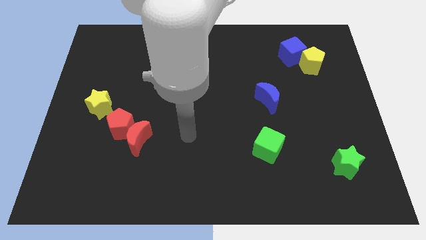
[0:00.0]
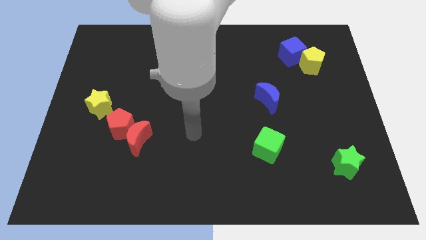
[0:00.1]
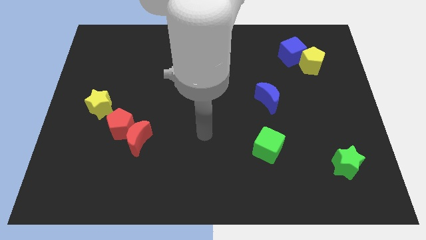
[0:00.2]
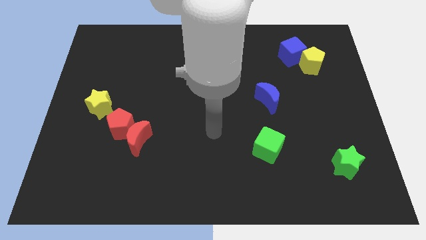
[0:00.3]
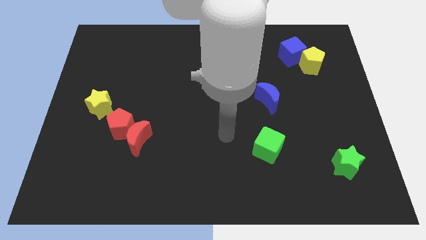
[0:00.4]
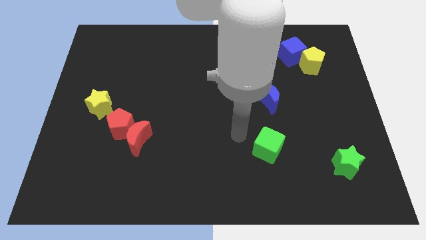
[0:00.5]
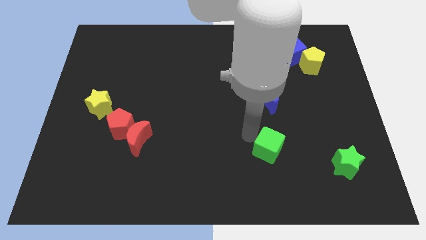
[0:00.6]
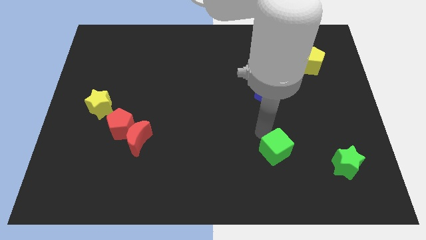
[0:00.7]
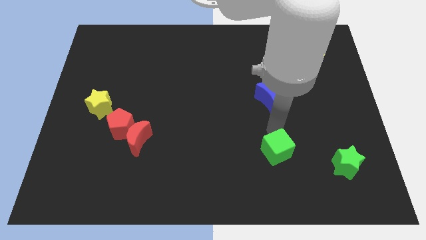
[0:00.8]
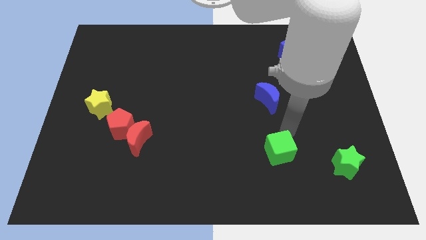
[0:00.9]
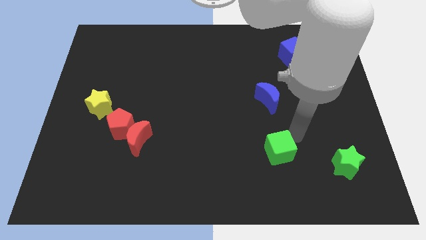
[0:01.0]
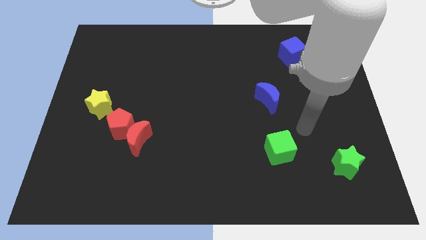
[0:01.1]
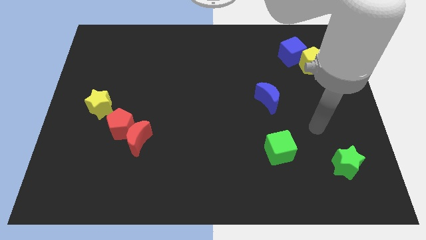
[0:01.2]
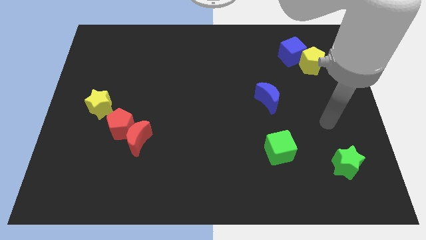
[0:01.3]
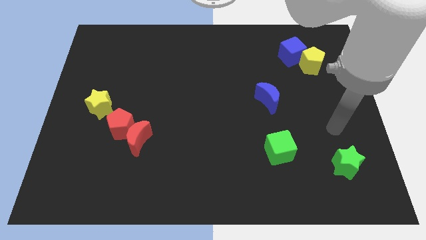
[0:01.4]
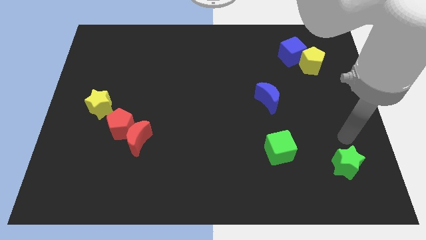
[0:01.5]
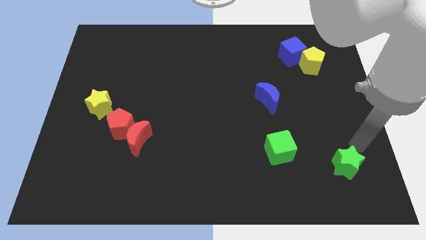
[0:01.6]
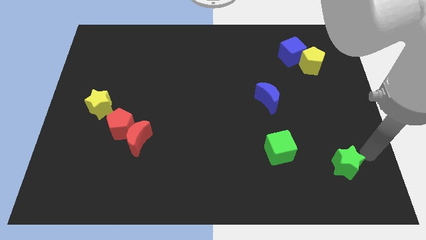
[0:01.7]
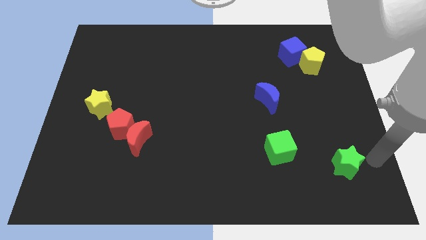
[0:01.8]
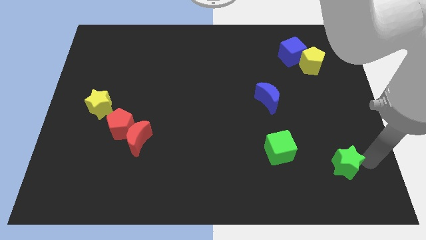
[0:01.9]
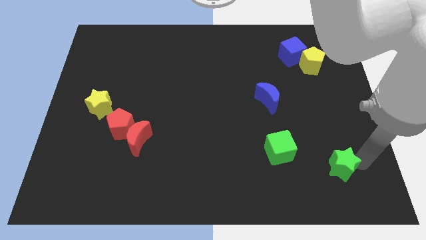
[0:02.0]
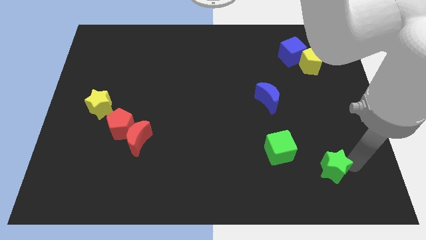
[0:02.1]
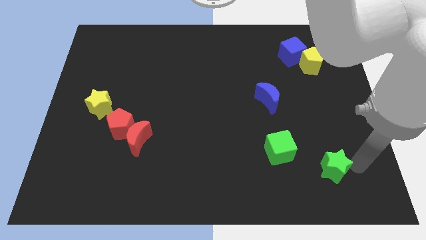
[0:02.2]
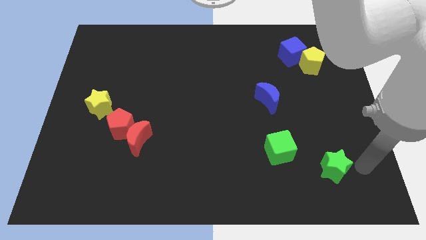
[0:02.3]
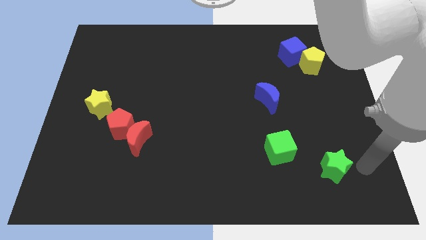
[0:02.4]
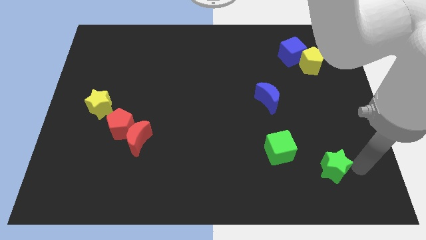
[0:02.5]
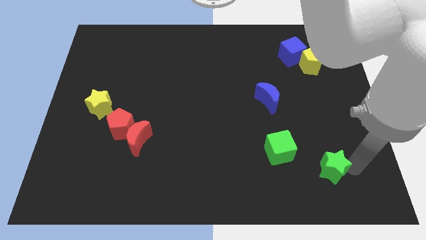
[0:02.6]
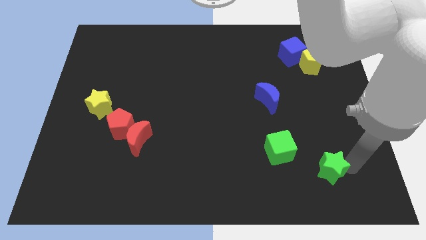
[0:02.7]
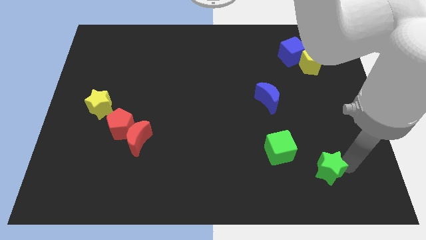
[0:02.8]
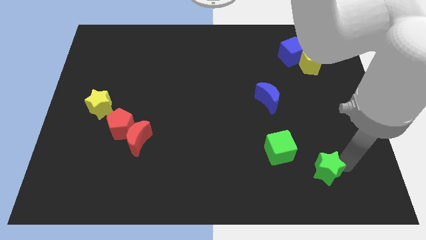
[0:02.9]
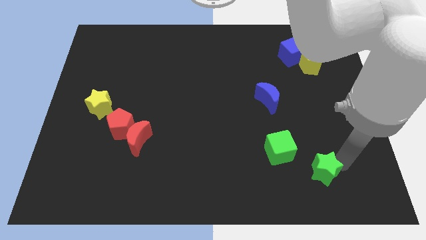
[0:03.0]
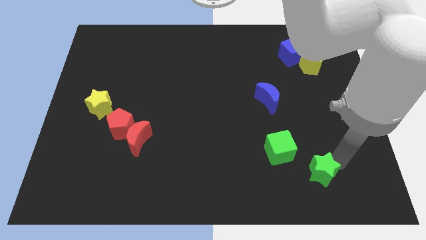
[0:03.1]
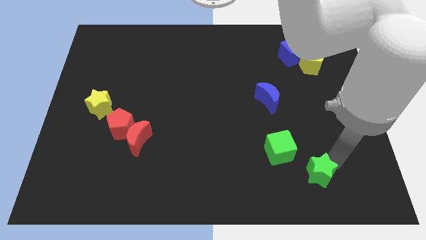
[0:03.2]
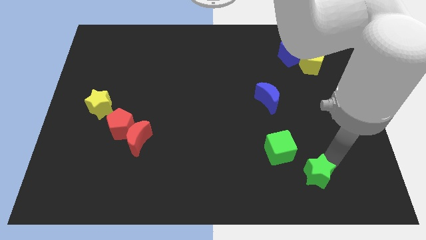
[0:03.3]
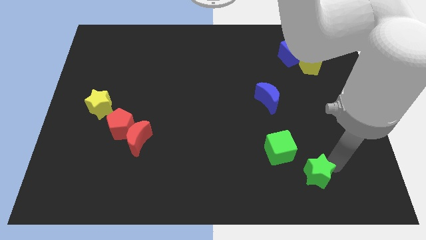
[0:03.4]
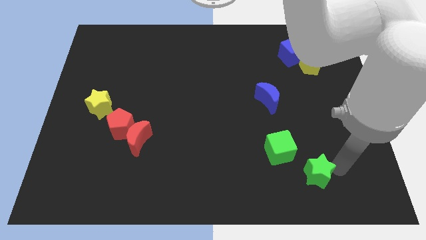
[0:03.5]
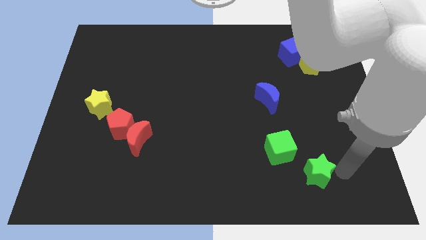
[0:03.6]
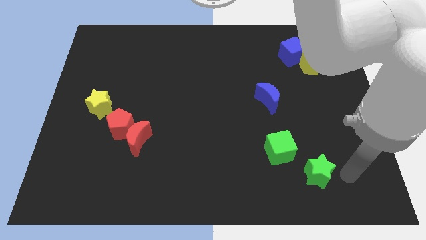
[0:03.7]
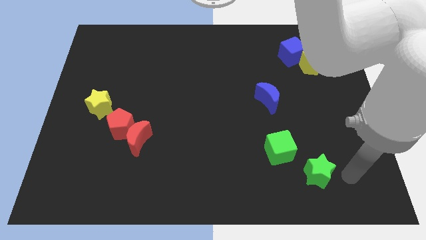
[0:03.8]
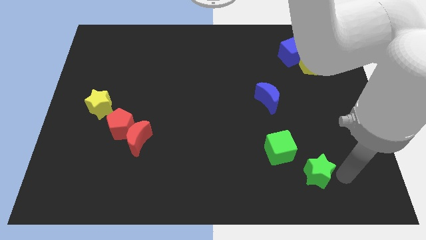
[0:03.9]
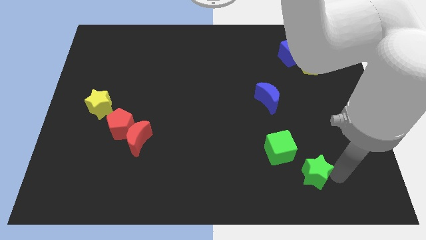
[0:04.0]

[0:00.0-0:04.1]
slightly slide the green star to the left

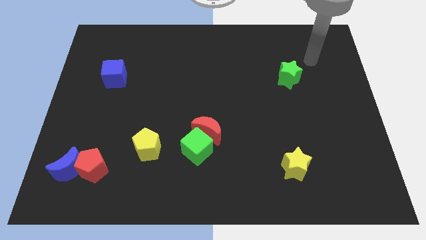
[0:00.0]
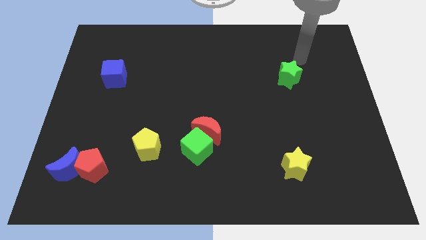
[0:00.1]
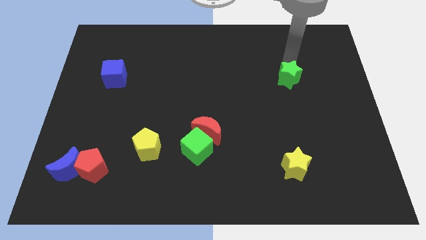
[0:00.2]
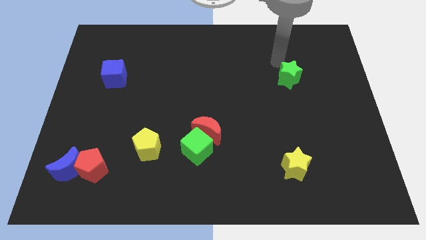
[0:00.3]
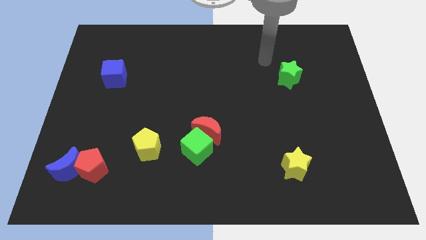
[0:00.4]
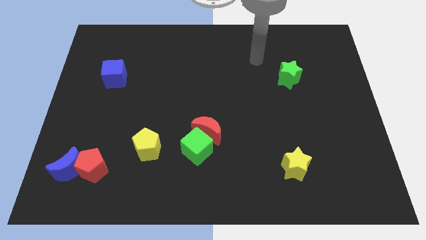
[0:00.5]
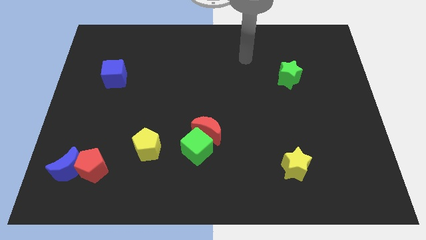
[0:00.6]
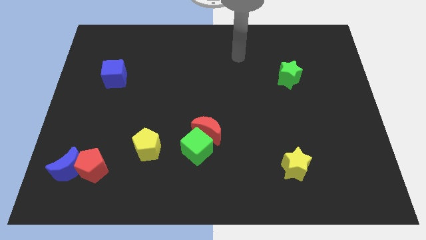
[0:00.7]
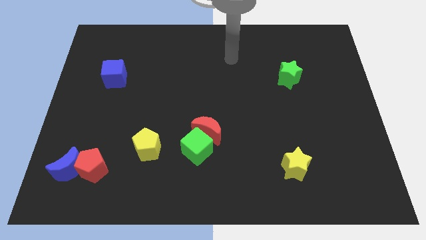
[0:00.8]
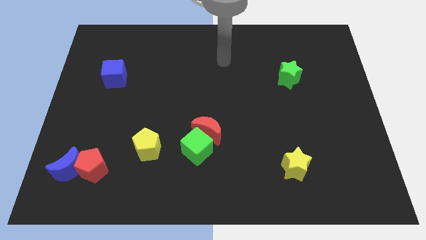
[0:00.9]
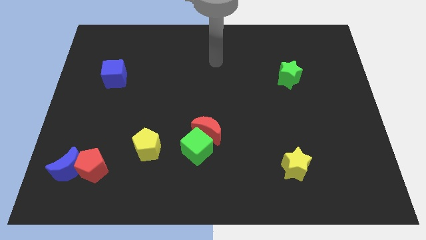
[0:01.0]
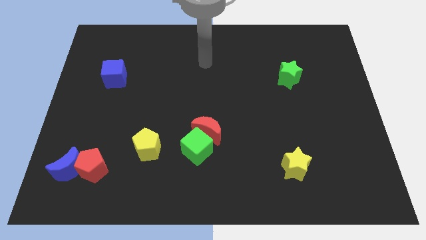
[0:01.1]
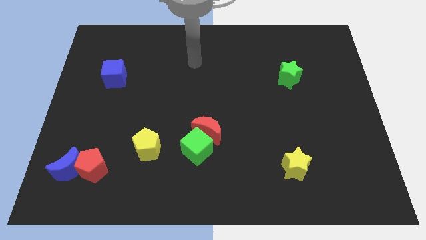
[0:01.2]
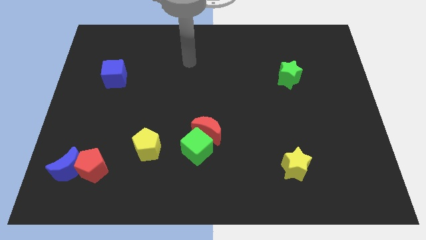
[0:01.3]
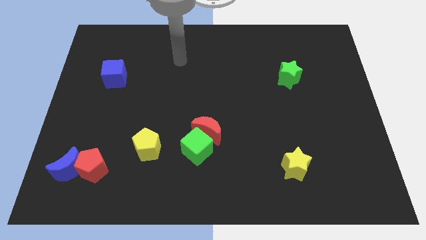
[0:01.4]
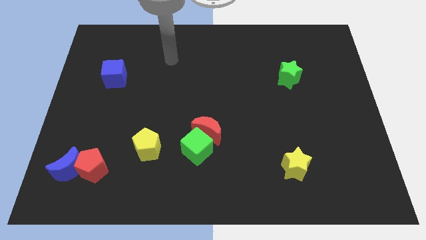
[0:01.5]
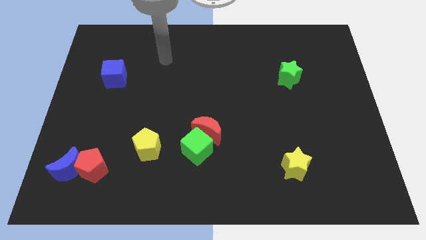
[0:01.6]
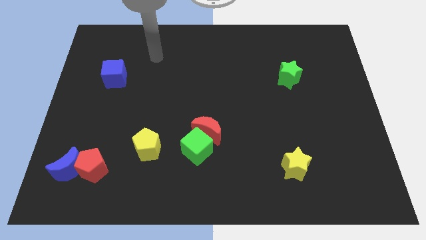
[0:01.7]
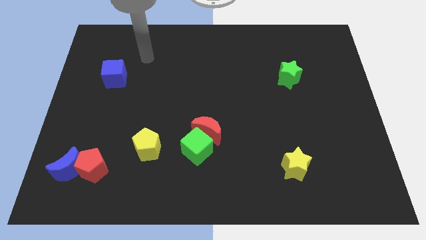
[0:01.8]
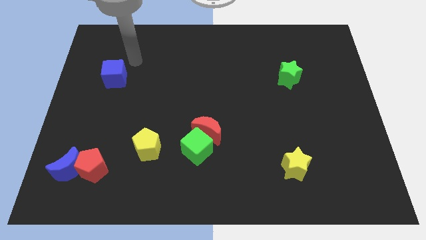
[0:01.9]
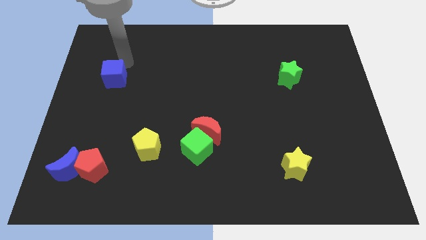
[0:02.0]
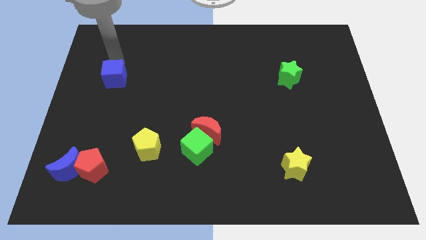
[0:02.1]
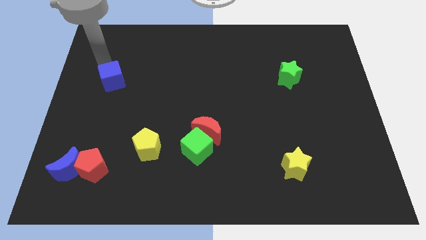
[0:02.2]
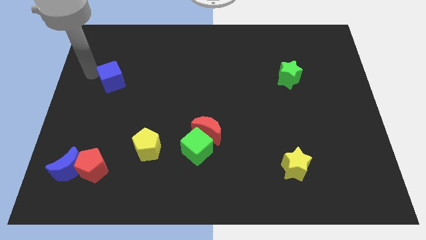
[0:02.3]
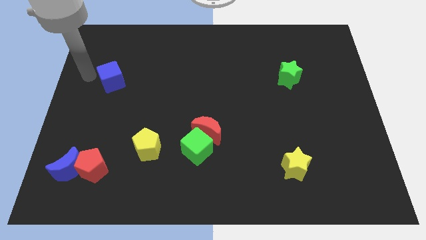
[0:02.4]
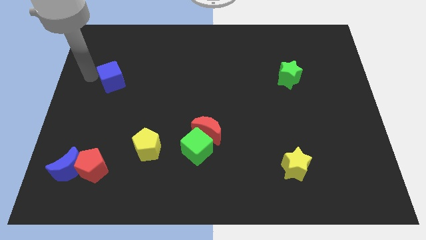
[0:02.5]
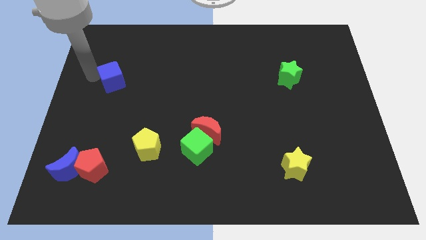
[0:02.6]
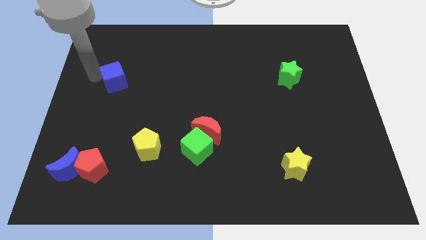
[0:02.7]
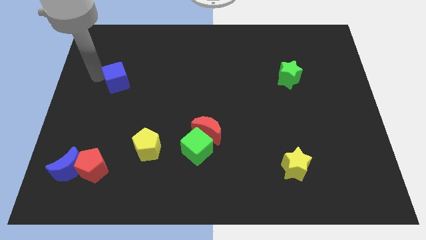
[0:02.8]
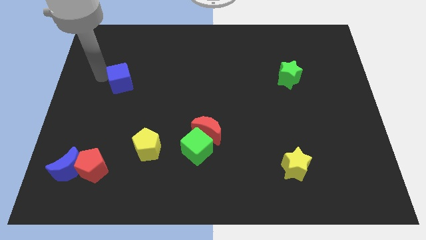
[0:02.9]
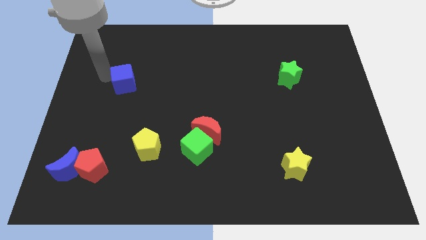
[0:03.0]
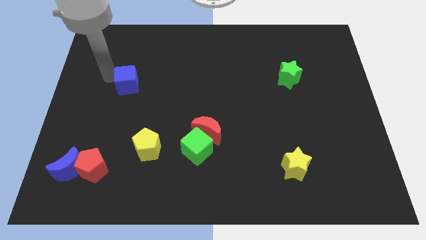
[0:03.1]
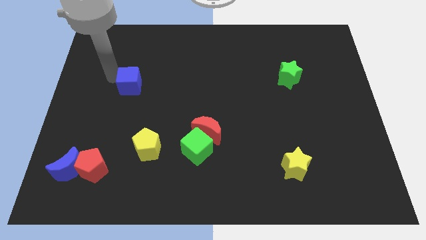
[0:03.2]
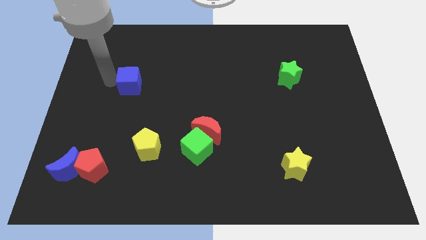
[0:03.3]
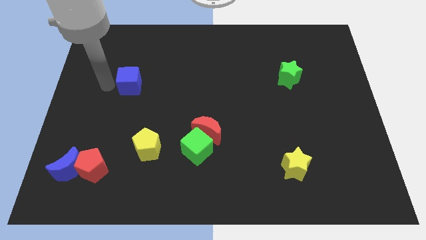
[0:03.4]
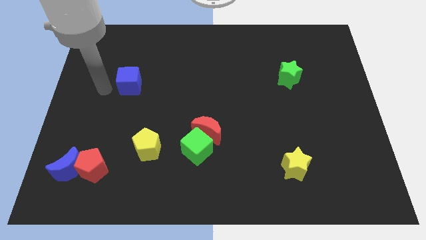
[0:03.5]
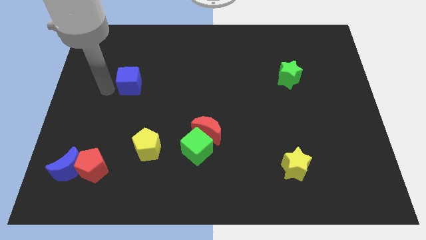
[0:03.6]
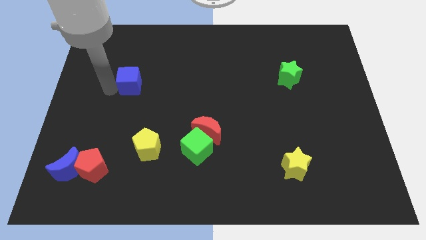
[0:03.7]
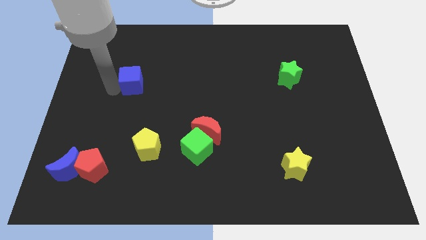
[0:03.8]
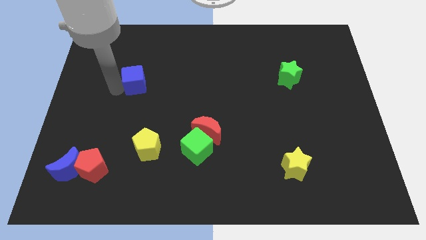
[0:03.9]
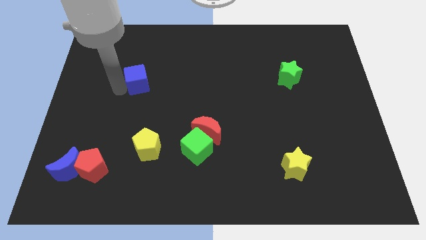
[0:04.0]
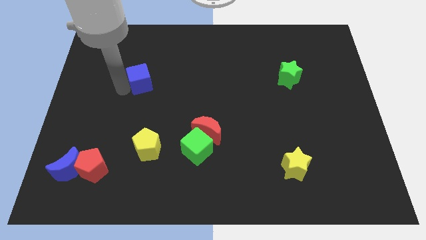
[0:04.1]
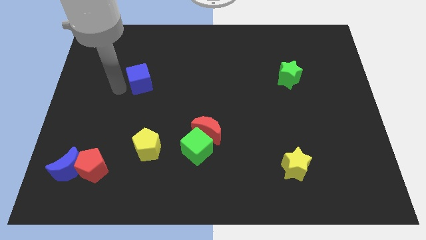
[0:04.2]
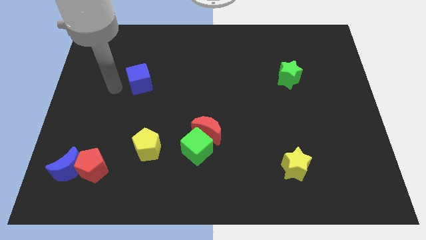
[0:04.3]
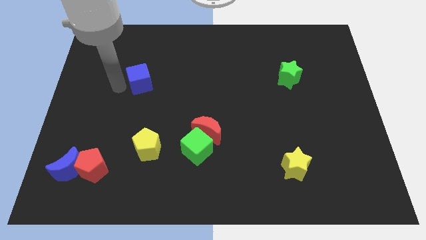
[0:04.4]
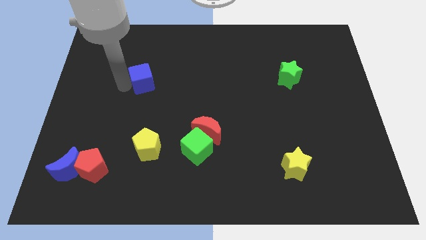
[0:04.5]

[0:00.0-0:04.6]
slide the blue cube right slightly

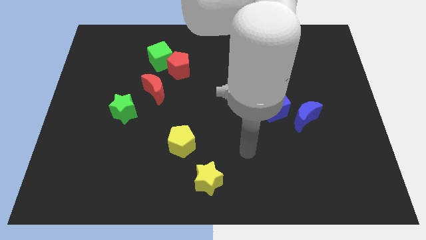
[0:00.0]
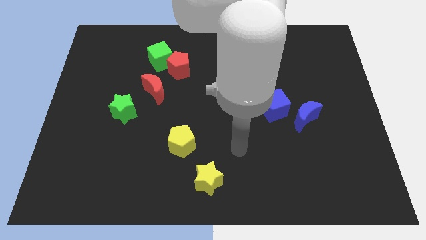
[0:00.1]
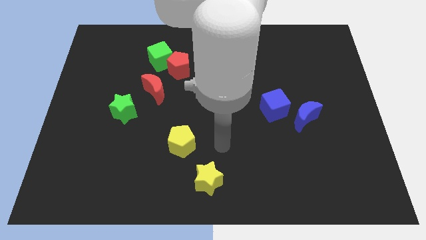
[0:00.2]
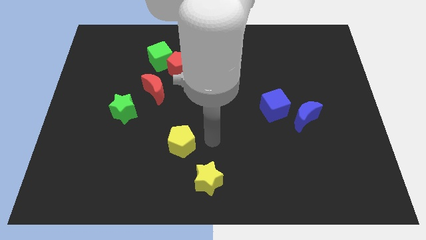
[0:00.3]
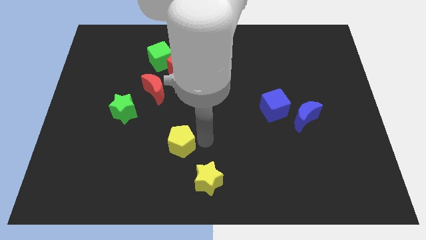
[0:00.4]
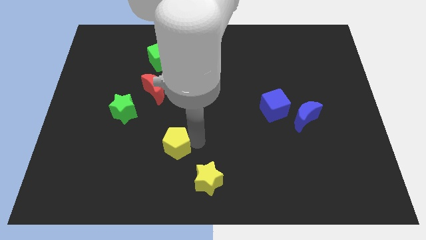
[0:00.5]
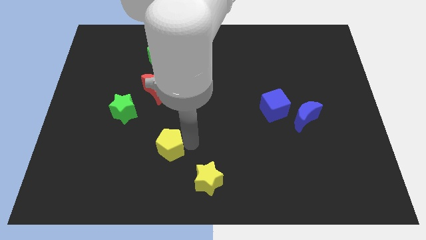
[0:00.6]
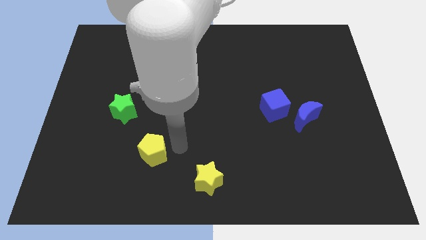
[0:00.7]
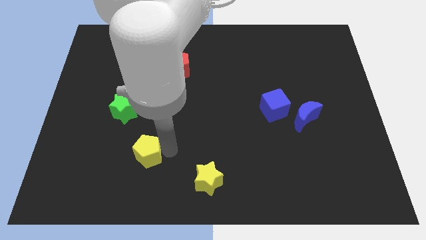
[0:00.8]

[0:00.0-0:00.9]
slightly move the yellow pentagon left
